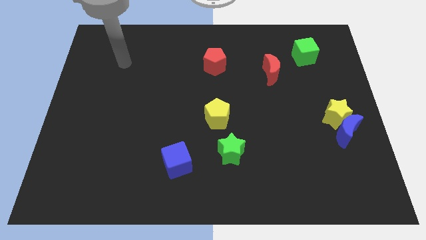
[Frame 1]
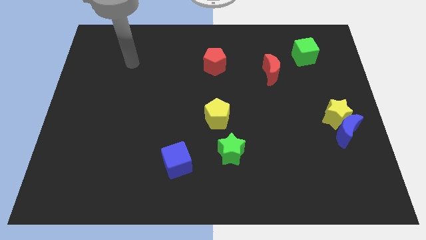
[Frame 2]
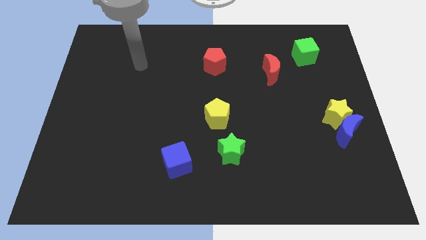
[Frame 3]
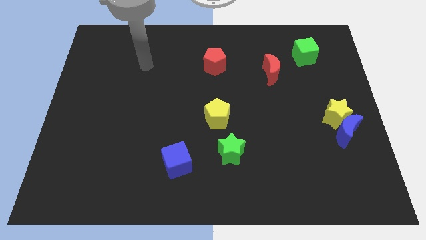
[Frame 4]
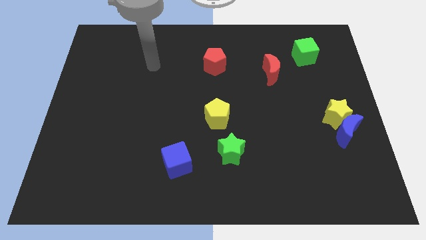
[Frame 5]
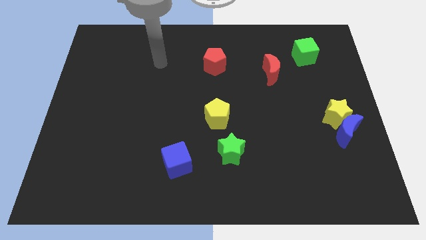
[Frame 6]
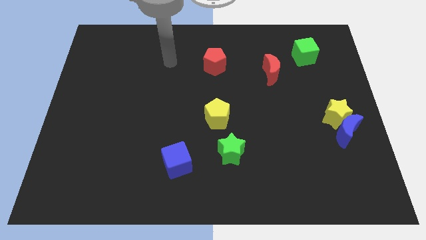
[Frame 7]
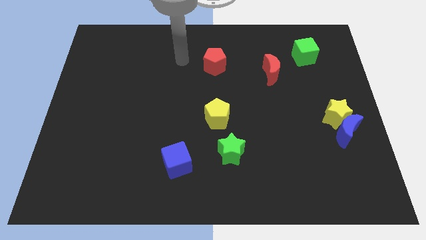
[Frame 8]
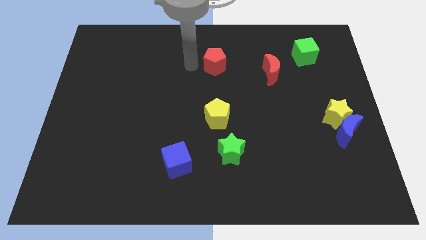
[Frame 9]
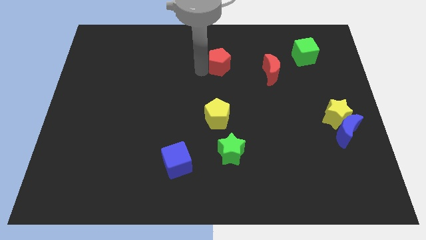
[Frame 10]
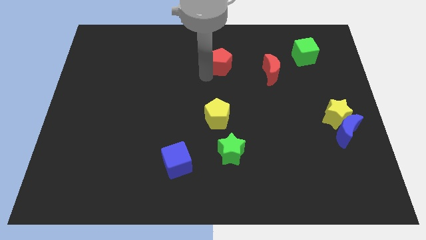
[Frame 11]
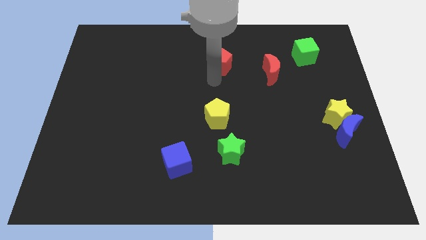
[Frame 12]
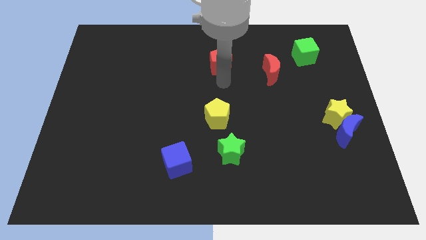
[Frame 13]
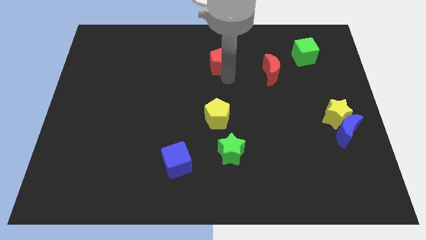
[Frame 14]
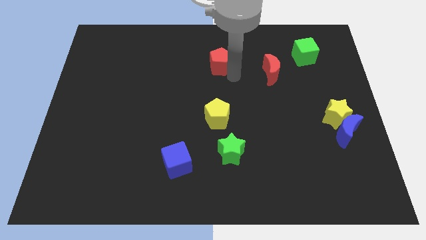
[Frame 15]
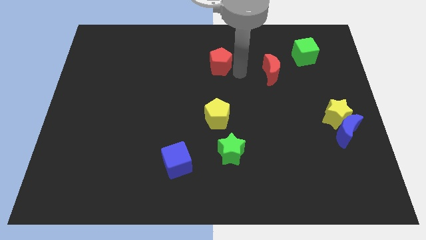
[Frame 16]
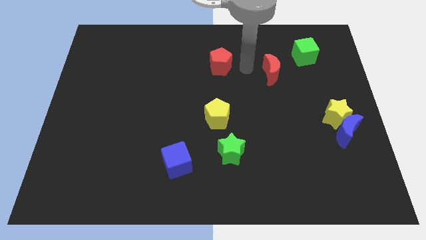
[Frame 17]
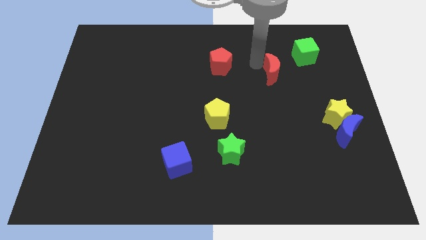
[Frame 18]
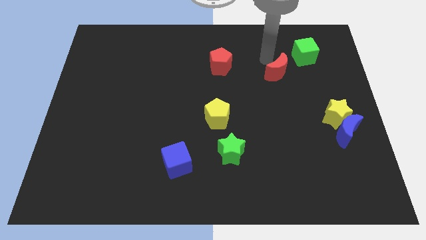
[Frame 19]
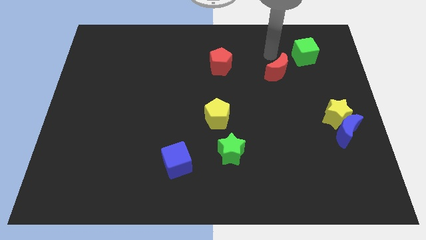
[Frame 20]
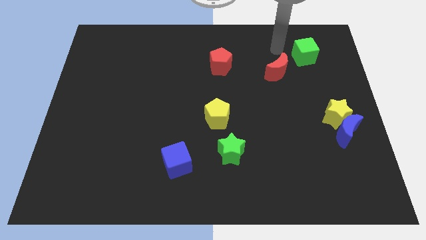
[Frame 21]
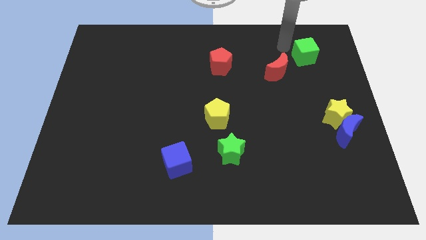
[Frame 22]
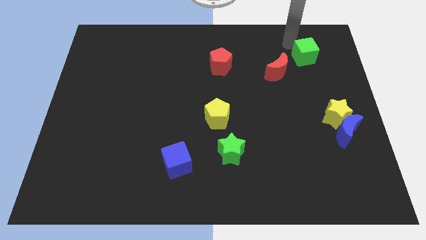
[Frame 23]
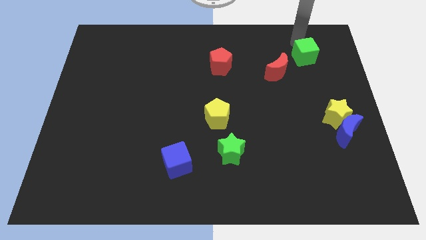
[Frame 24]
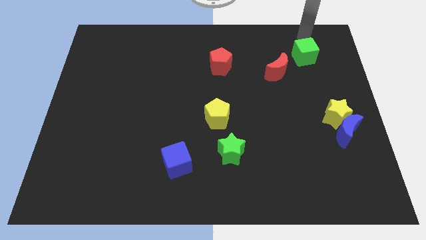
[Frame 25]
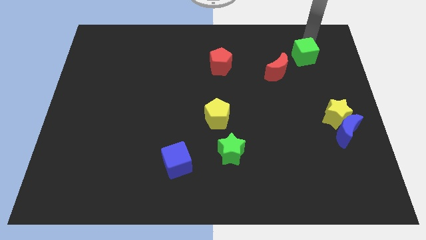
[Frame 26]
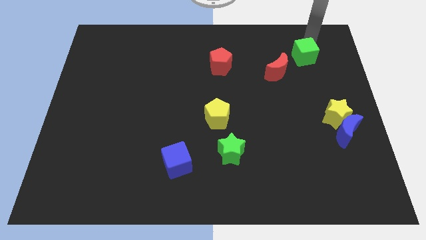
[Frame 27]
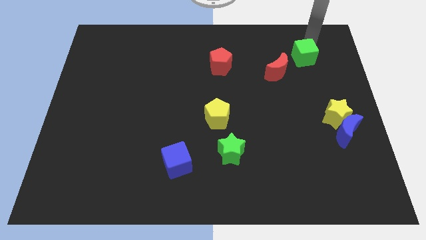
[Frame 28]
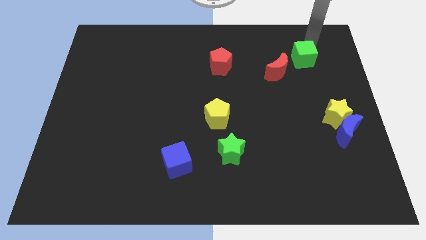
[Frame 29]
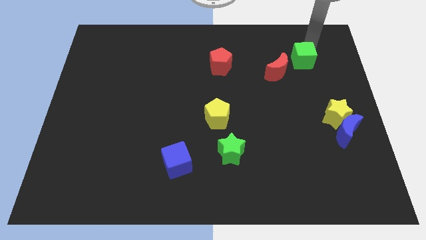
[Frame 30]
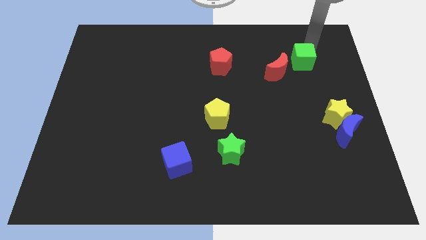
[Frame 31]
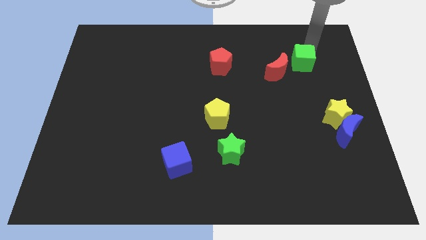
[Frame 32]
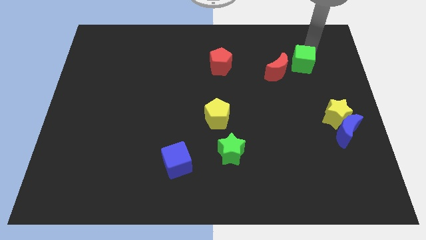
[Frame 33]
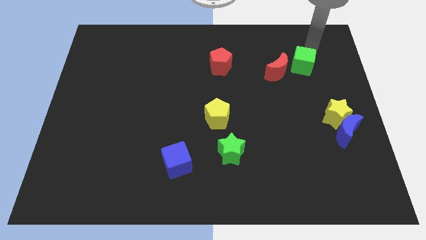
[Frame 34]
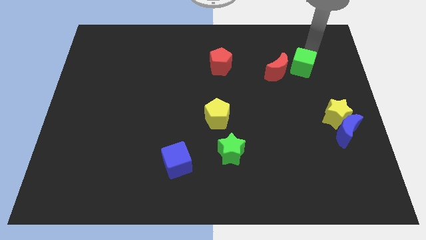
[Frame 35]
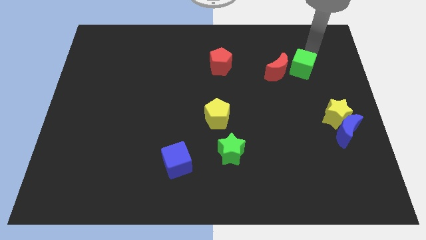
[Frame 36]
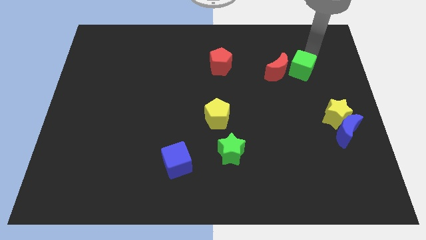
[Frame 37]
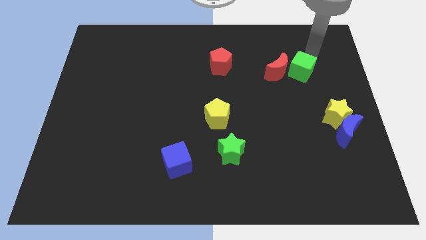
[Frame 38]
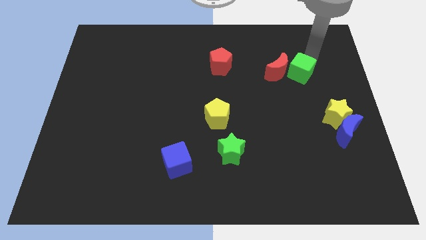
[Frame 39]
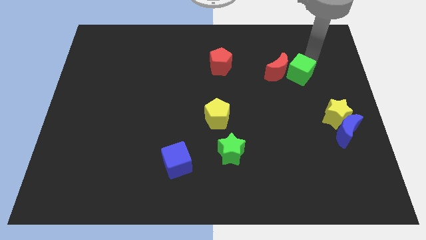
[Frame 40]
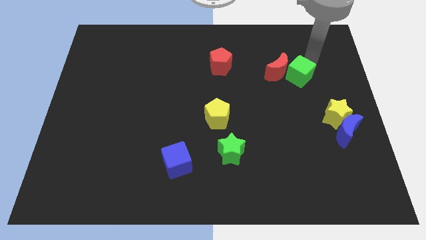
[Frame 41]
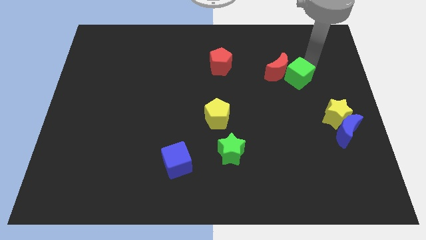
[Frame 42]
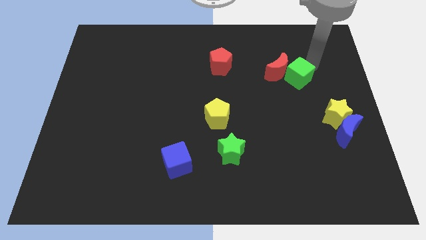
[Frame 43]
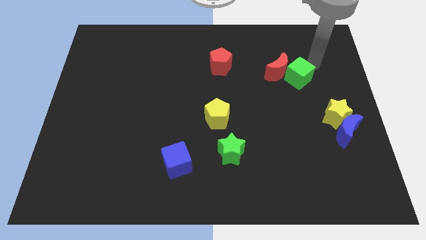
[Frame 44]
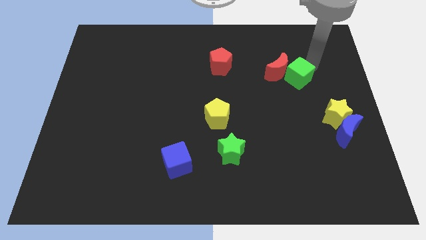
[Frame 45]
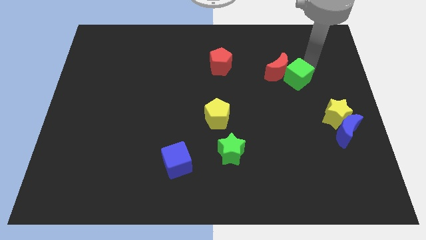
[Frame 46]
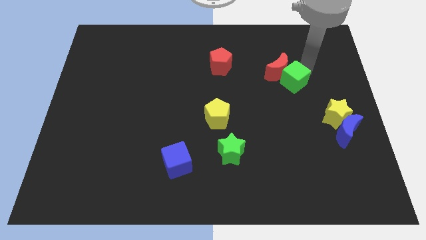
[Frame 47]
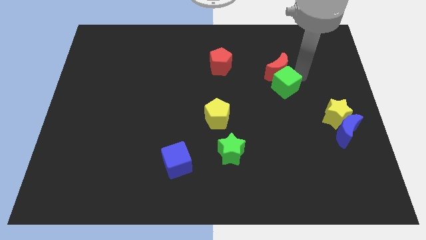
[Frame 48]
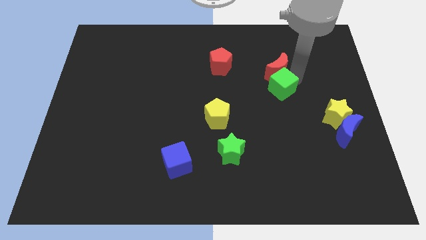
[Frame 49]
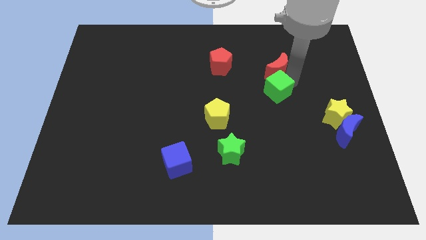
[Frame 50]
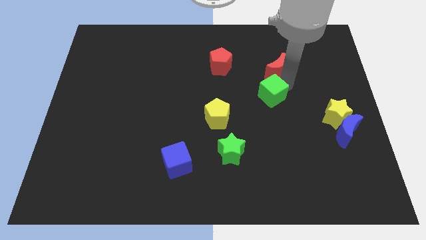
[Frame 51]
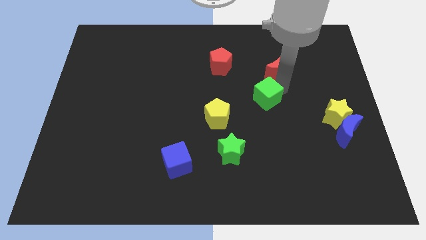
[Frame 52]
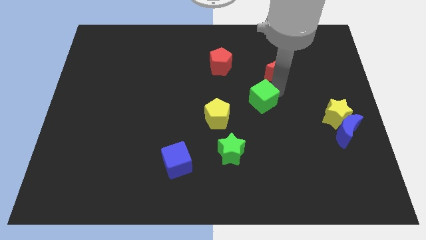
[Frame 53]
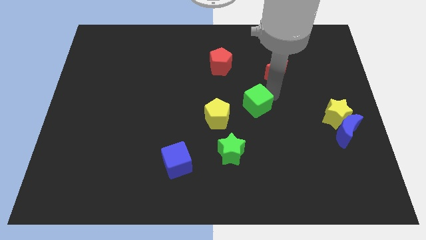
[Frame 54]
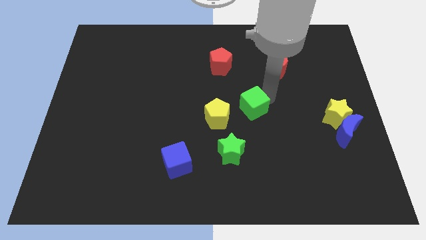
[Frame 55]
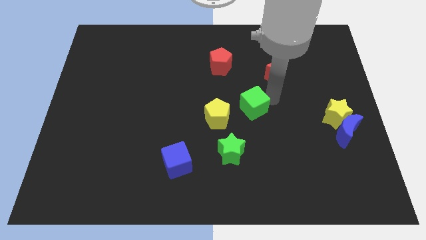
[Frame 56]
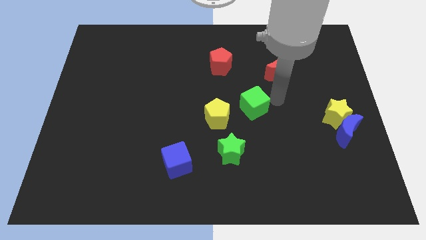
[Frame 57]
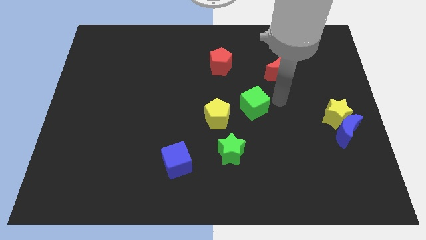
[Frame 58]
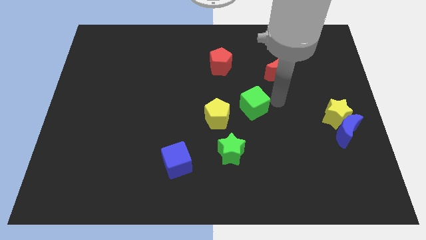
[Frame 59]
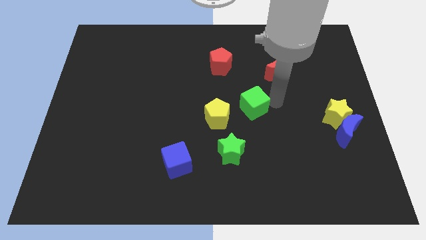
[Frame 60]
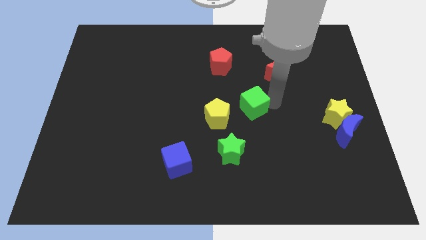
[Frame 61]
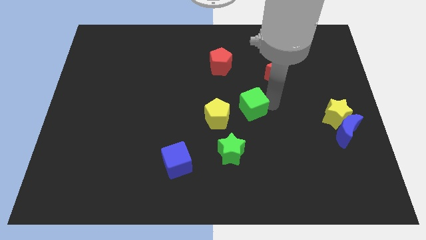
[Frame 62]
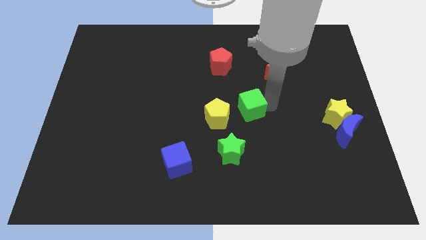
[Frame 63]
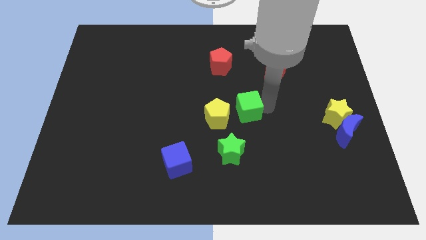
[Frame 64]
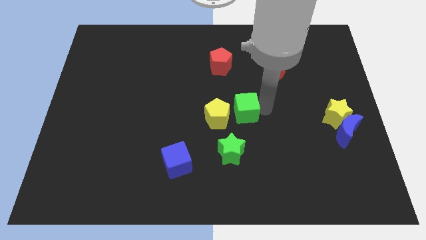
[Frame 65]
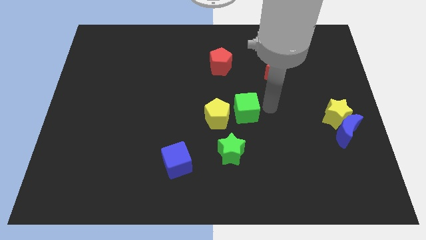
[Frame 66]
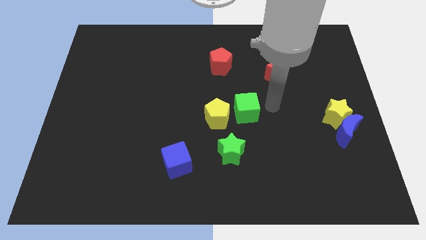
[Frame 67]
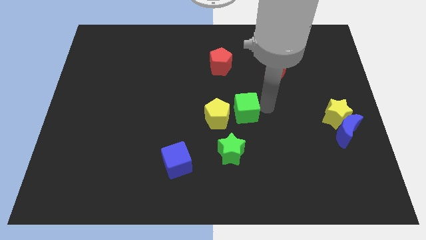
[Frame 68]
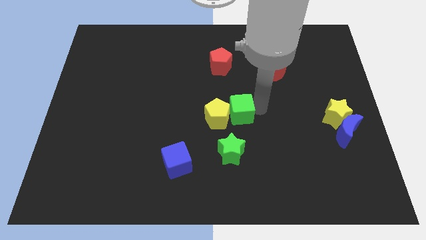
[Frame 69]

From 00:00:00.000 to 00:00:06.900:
push the green cube close to the yellow pentagon

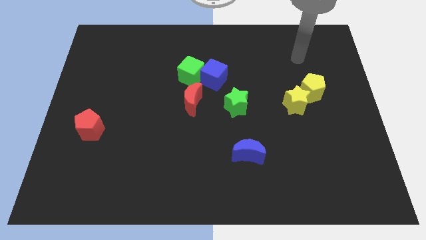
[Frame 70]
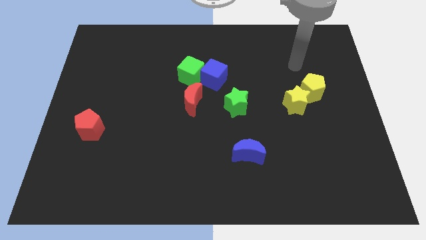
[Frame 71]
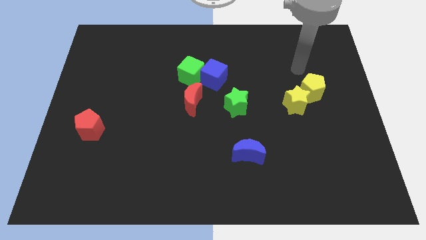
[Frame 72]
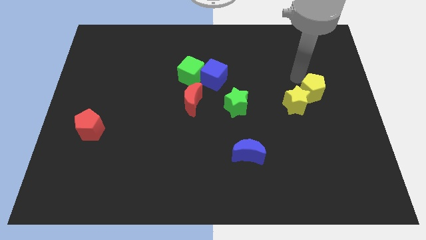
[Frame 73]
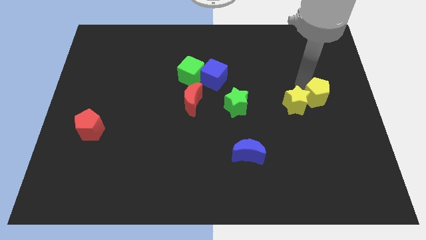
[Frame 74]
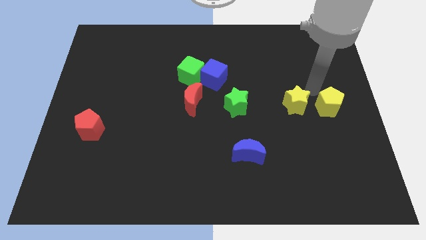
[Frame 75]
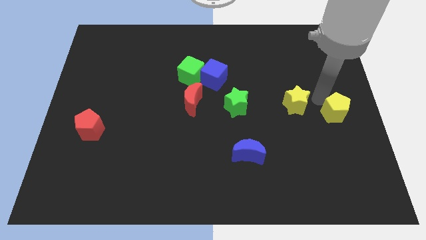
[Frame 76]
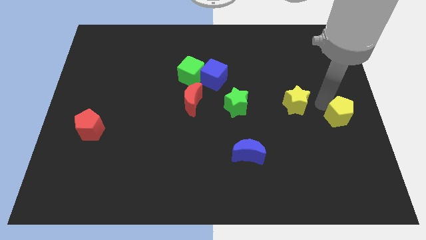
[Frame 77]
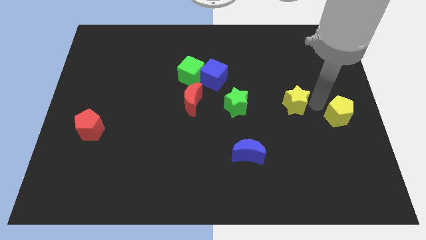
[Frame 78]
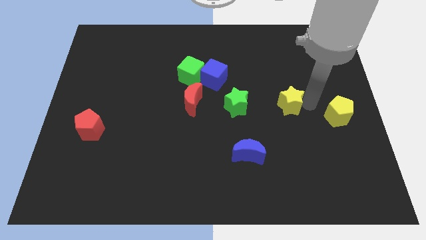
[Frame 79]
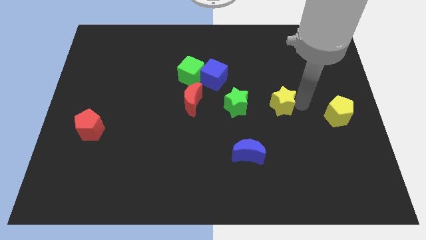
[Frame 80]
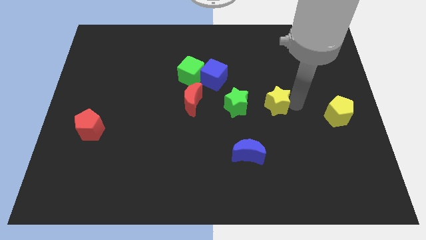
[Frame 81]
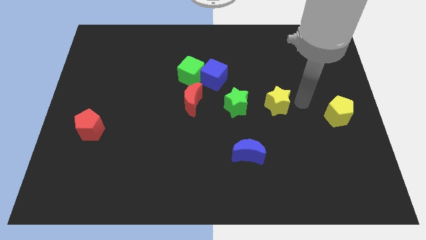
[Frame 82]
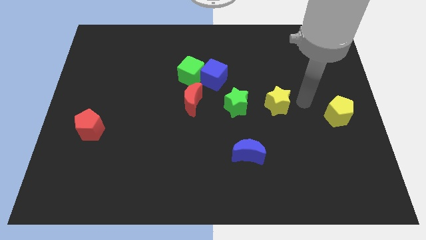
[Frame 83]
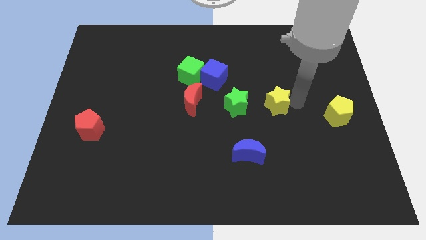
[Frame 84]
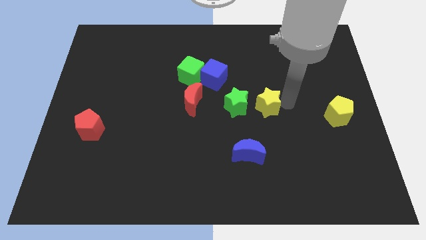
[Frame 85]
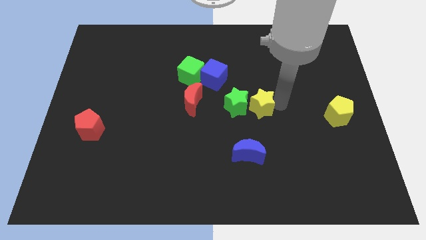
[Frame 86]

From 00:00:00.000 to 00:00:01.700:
put the yellow star to the green star
